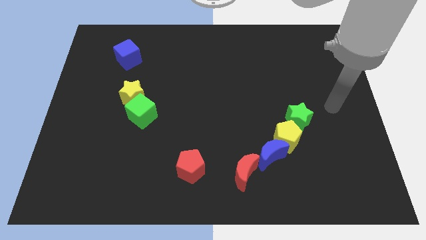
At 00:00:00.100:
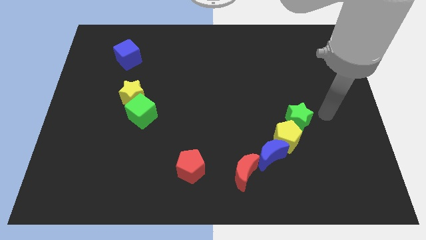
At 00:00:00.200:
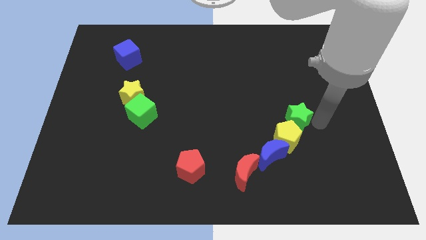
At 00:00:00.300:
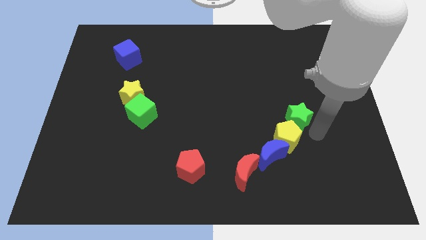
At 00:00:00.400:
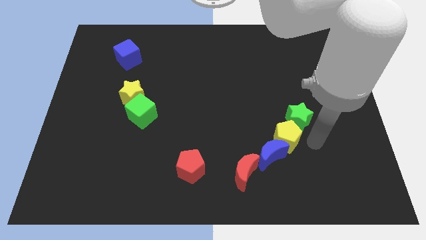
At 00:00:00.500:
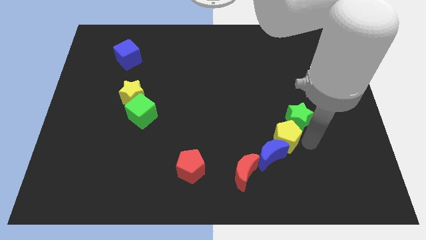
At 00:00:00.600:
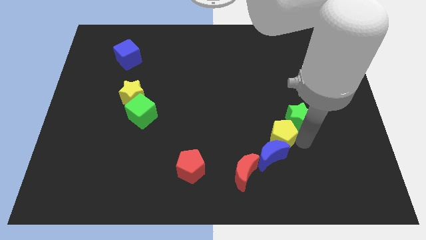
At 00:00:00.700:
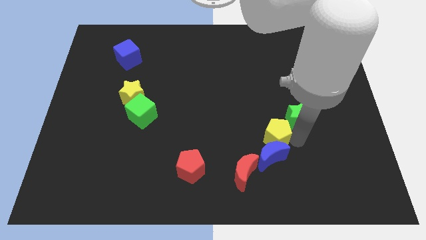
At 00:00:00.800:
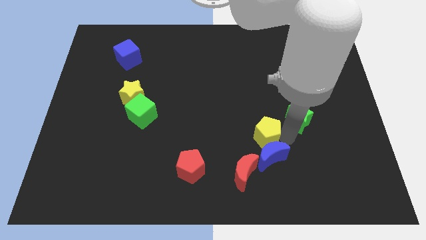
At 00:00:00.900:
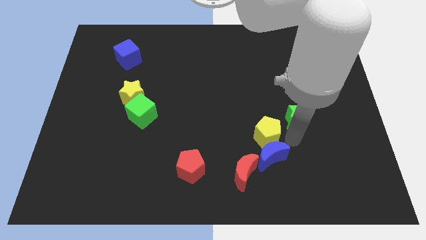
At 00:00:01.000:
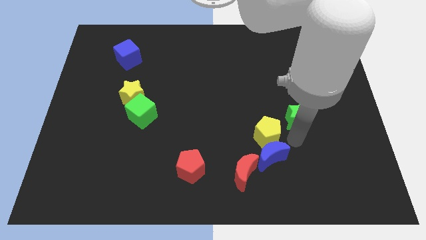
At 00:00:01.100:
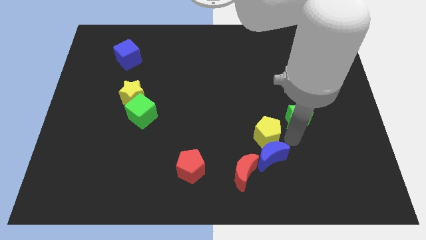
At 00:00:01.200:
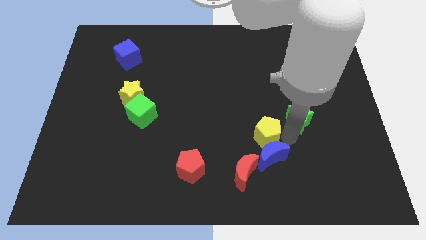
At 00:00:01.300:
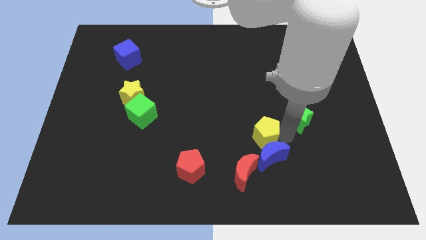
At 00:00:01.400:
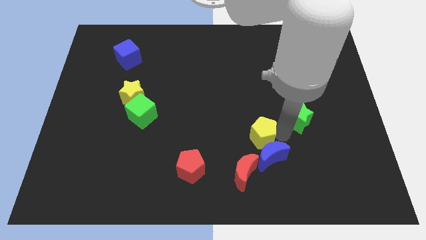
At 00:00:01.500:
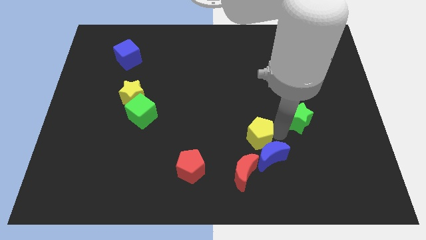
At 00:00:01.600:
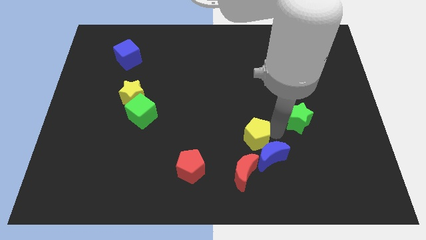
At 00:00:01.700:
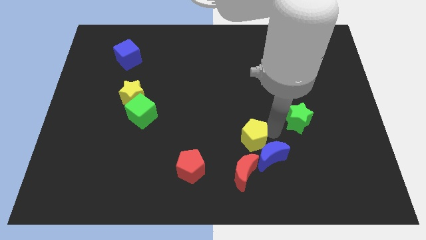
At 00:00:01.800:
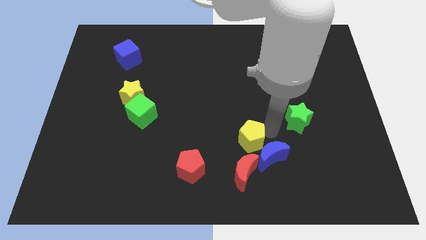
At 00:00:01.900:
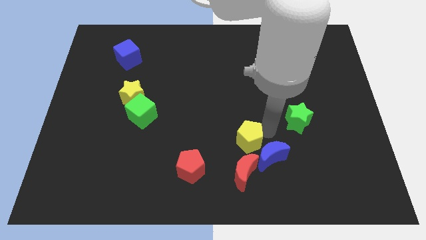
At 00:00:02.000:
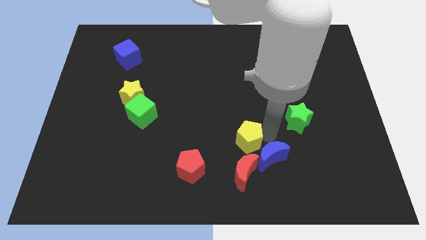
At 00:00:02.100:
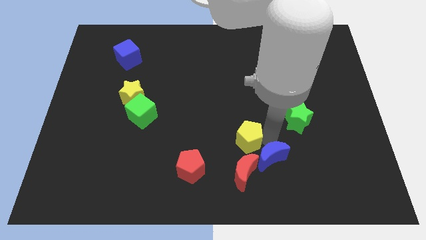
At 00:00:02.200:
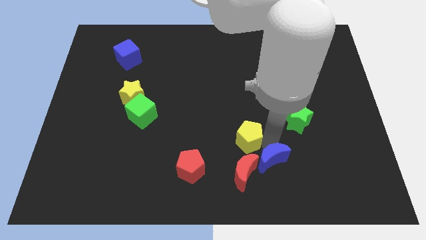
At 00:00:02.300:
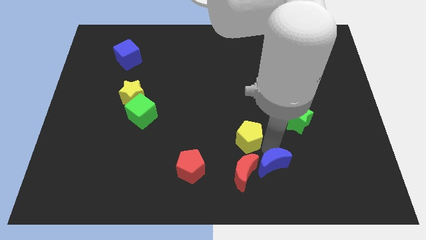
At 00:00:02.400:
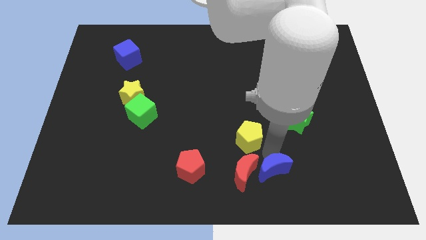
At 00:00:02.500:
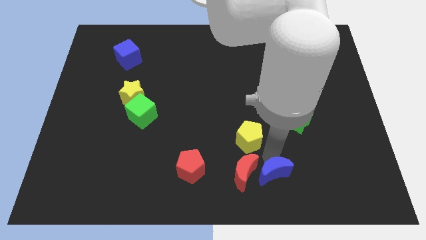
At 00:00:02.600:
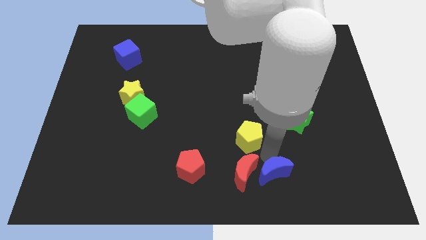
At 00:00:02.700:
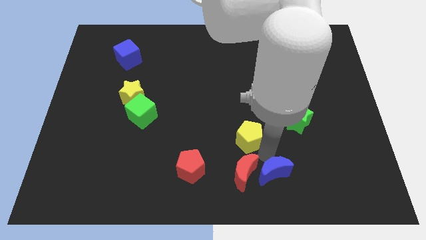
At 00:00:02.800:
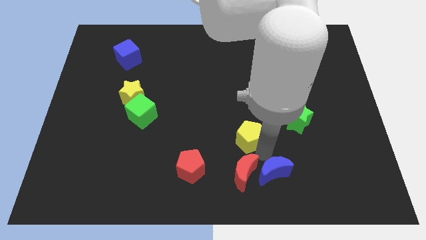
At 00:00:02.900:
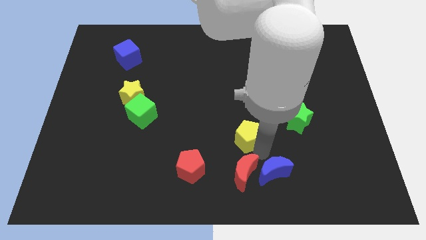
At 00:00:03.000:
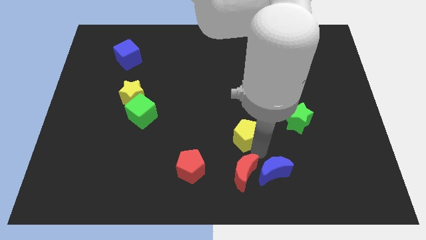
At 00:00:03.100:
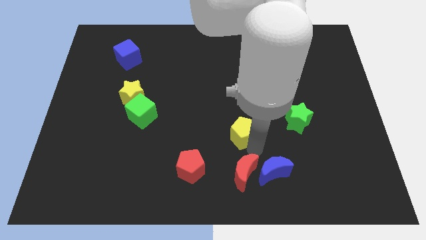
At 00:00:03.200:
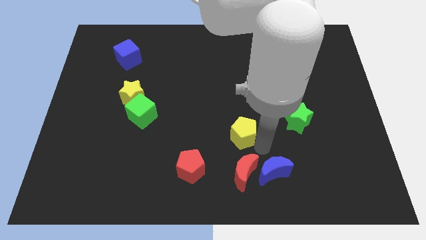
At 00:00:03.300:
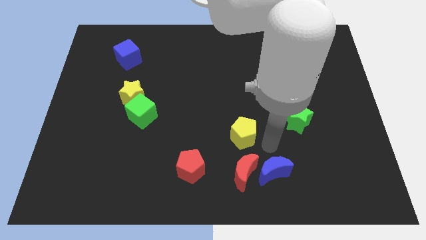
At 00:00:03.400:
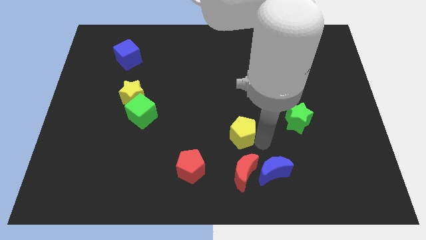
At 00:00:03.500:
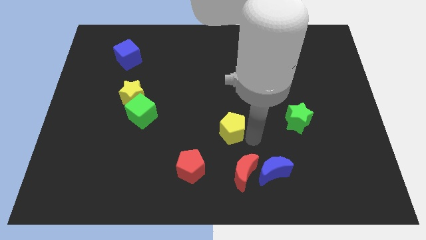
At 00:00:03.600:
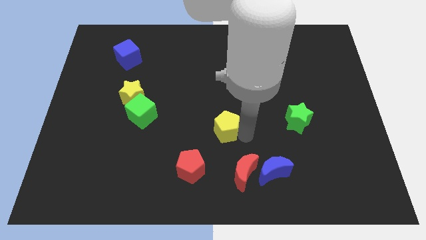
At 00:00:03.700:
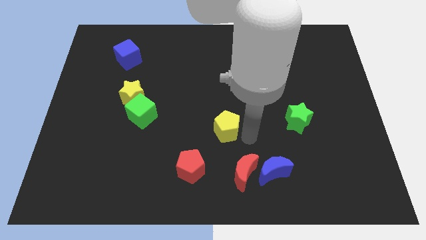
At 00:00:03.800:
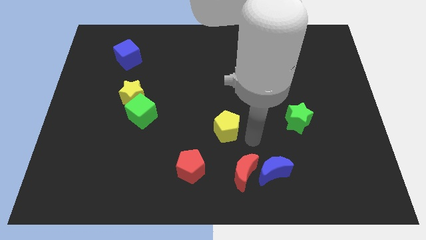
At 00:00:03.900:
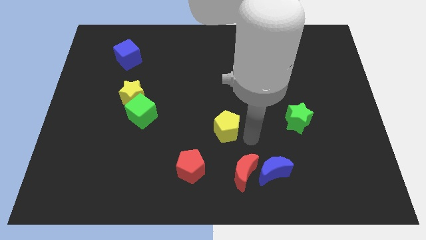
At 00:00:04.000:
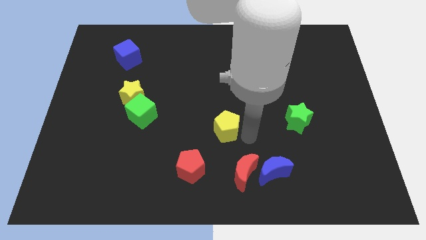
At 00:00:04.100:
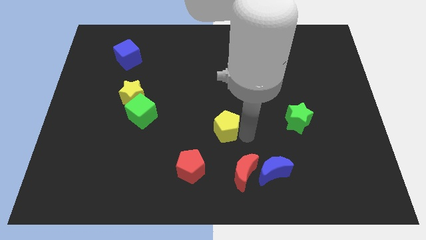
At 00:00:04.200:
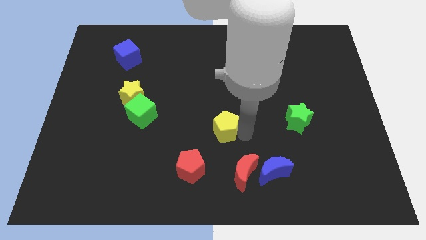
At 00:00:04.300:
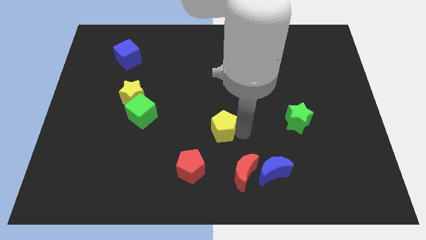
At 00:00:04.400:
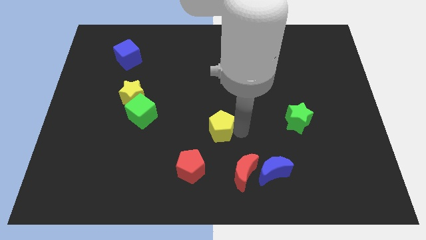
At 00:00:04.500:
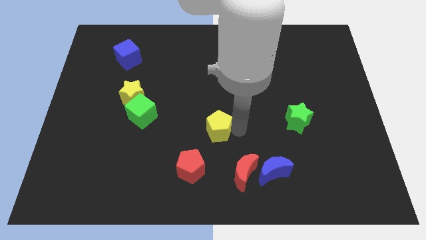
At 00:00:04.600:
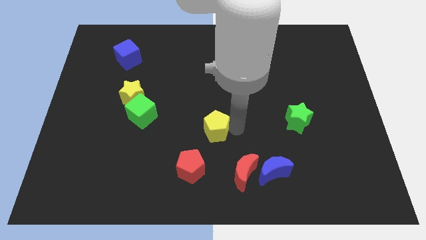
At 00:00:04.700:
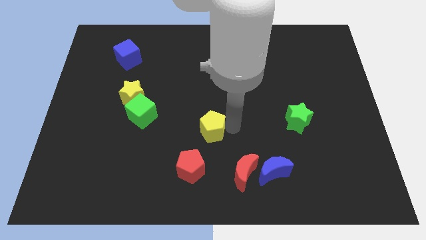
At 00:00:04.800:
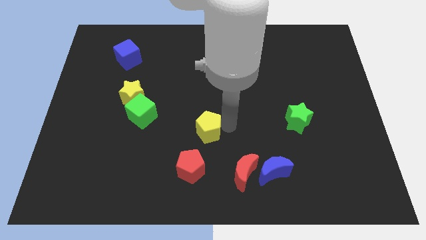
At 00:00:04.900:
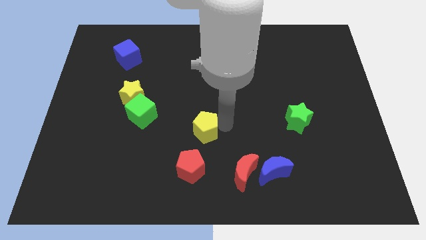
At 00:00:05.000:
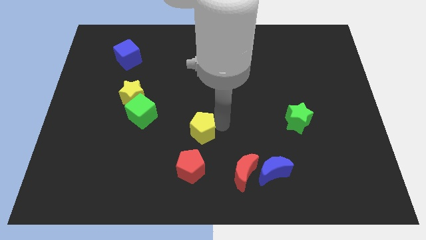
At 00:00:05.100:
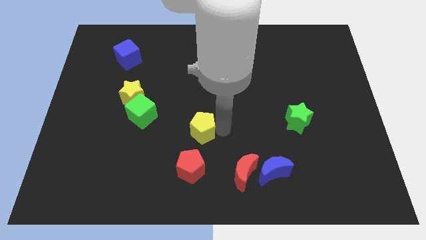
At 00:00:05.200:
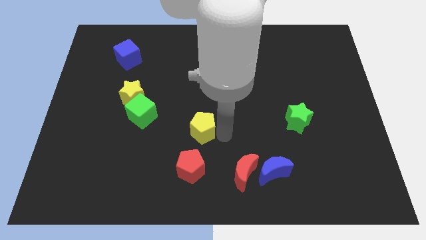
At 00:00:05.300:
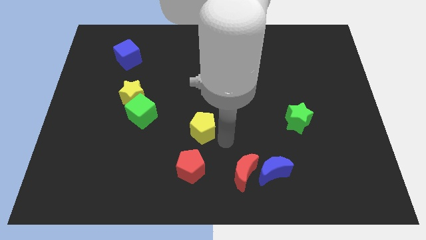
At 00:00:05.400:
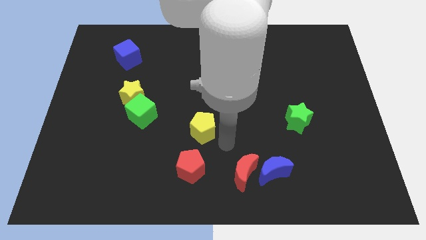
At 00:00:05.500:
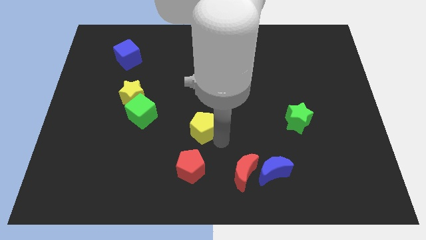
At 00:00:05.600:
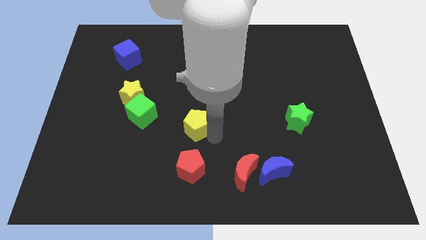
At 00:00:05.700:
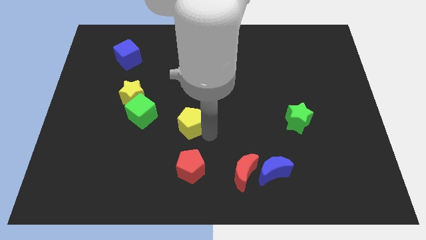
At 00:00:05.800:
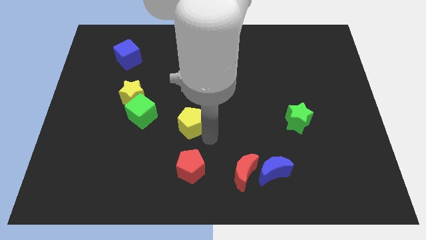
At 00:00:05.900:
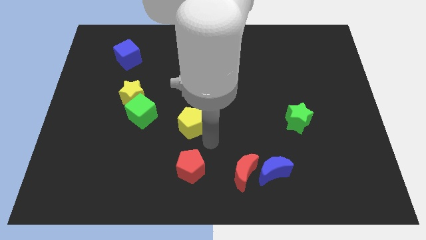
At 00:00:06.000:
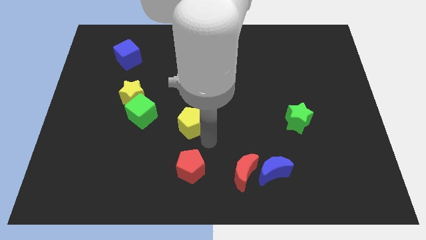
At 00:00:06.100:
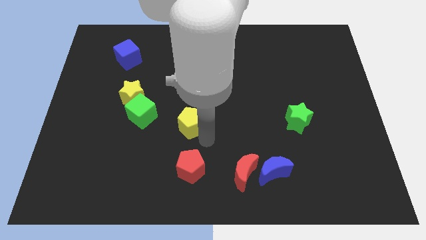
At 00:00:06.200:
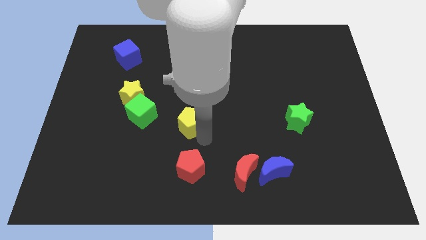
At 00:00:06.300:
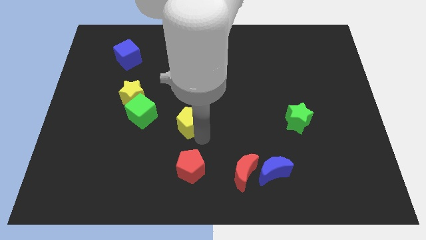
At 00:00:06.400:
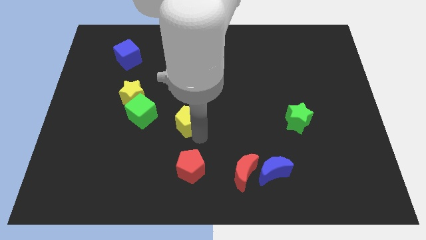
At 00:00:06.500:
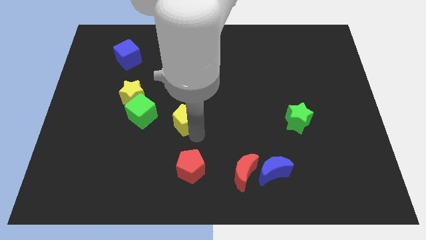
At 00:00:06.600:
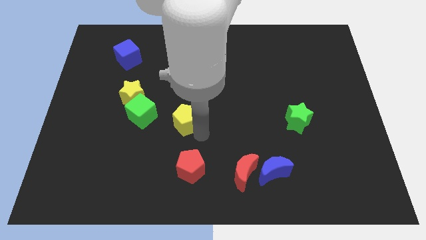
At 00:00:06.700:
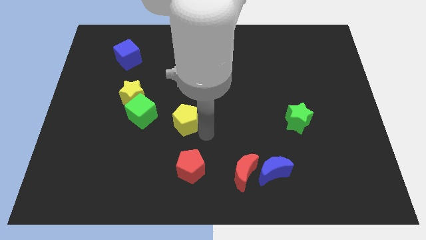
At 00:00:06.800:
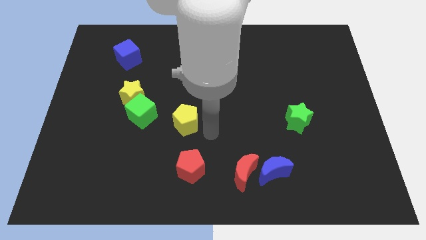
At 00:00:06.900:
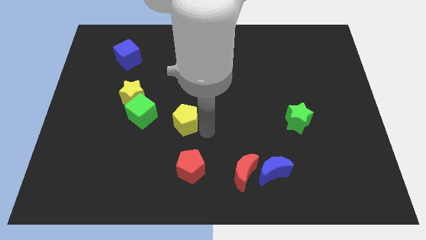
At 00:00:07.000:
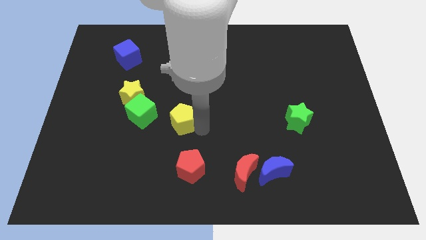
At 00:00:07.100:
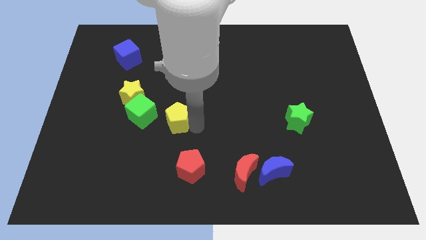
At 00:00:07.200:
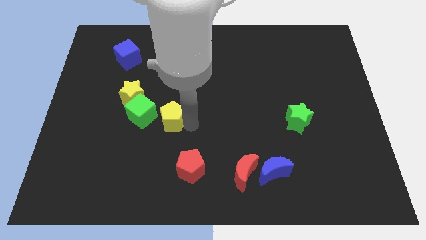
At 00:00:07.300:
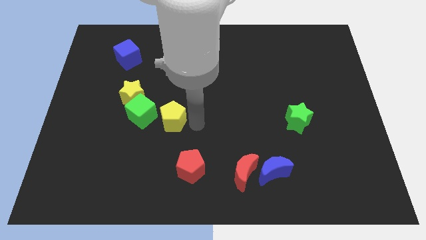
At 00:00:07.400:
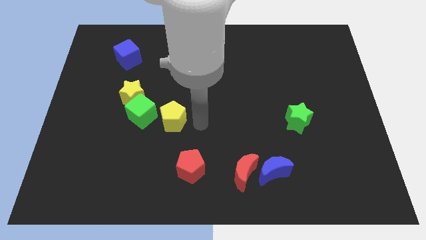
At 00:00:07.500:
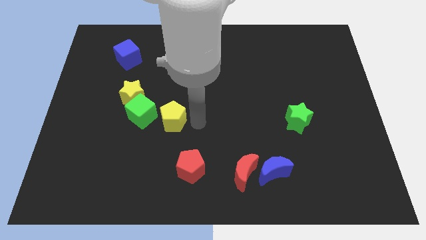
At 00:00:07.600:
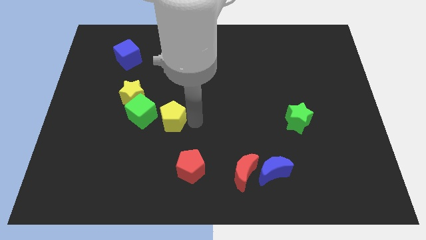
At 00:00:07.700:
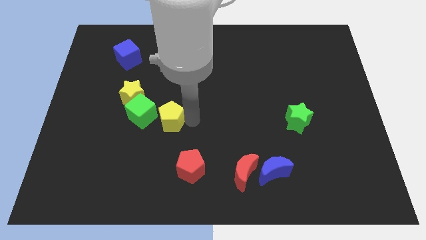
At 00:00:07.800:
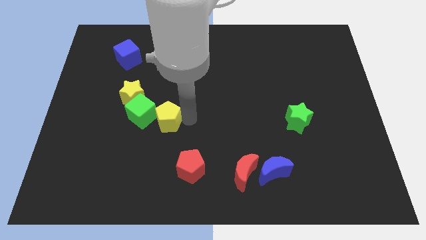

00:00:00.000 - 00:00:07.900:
move the yellow pentagon towards the green cube
